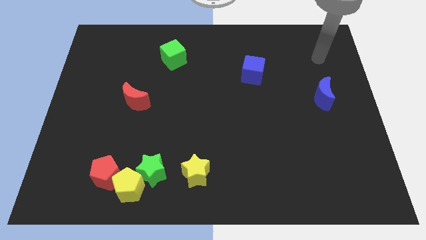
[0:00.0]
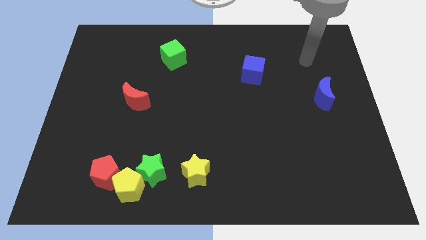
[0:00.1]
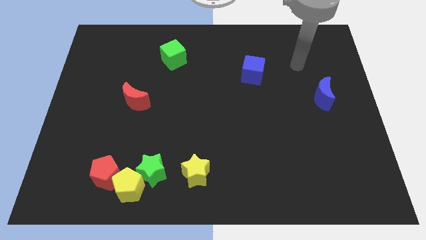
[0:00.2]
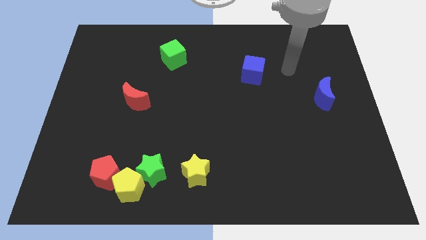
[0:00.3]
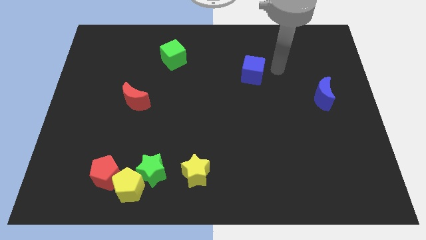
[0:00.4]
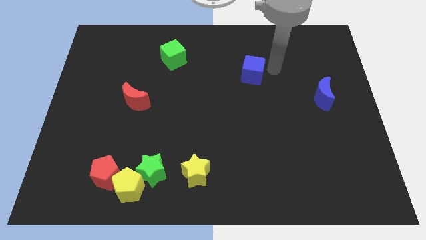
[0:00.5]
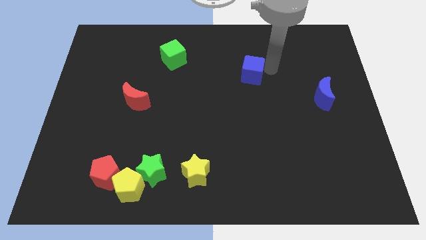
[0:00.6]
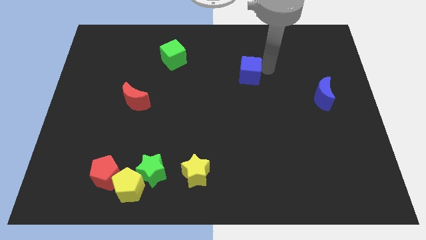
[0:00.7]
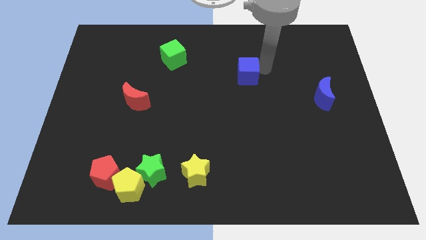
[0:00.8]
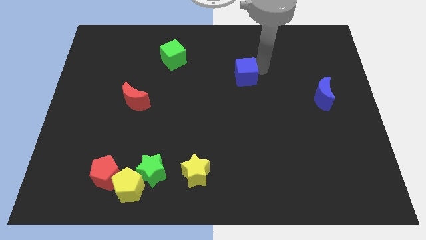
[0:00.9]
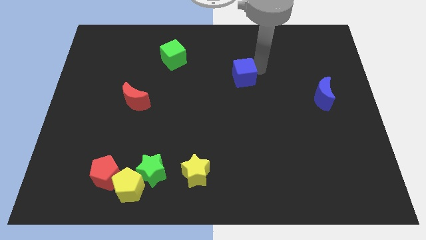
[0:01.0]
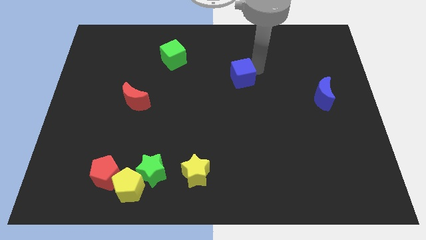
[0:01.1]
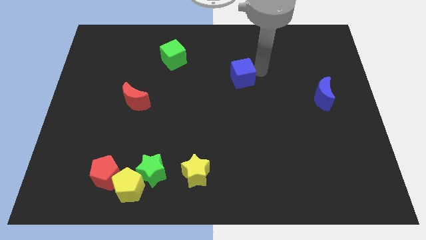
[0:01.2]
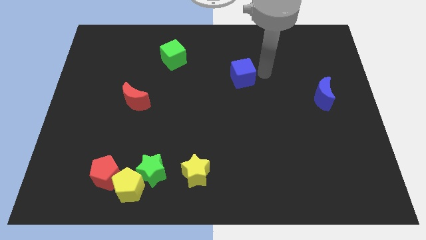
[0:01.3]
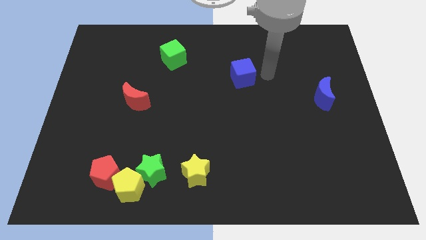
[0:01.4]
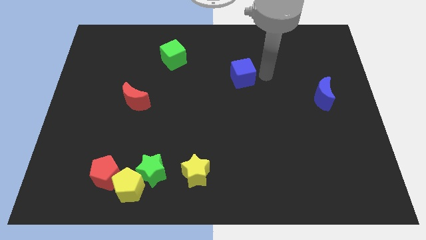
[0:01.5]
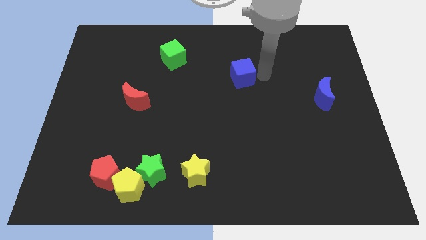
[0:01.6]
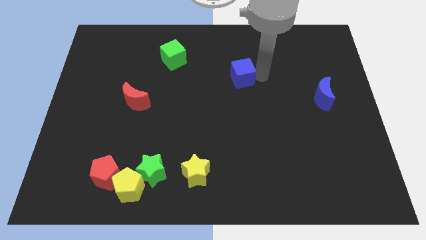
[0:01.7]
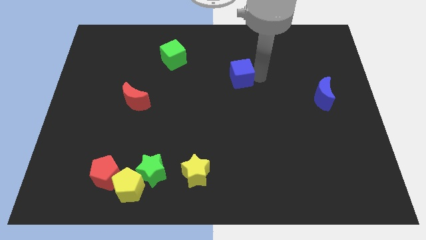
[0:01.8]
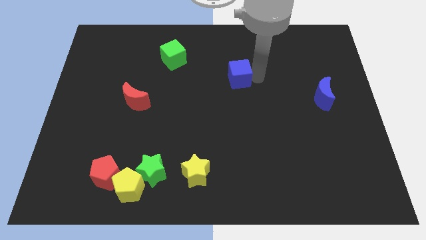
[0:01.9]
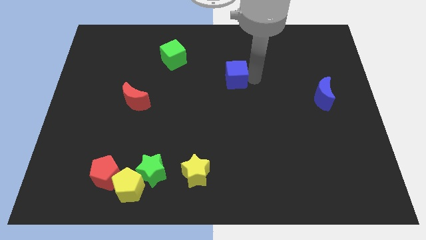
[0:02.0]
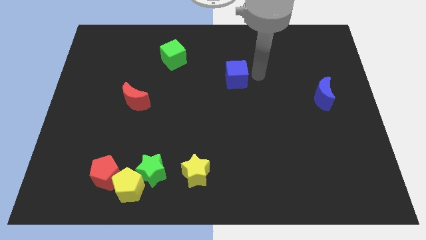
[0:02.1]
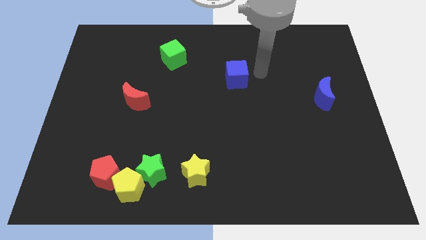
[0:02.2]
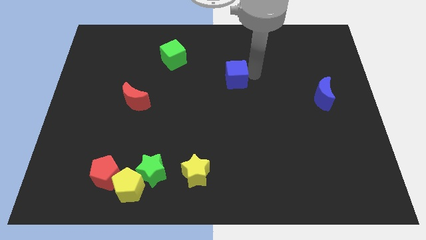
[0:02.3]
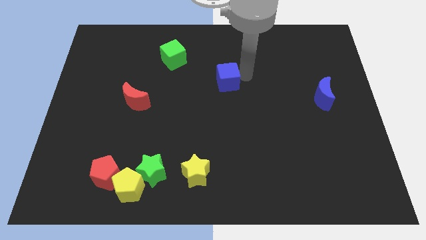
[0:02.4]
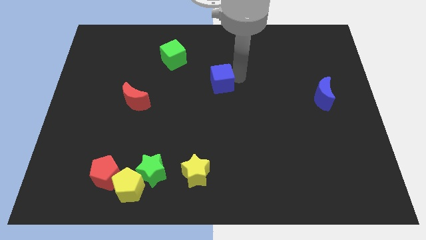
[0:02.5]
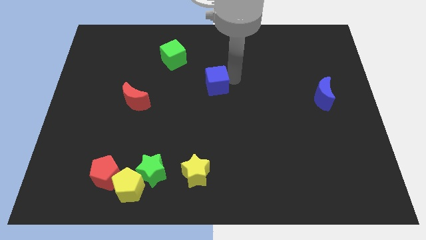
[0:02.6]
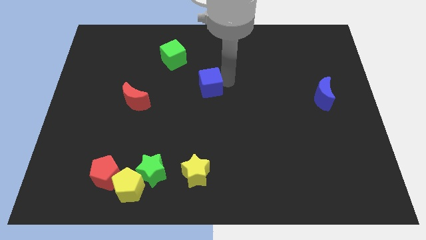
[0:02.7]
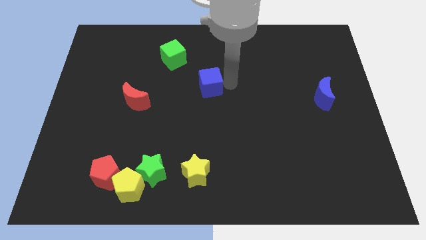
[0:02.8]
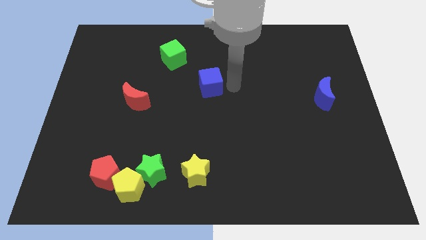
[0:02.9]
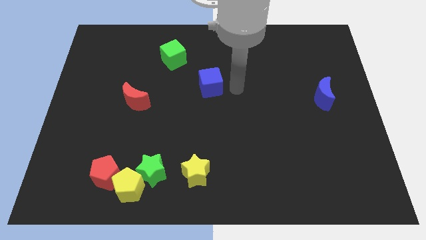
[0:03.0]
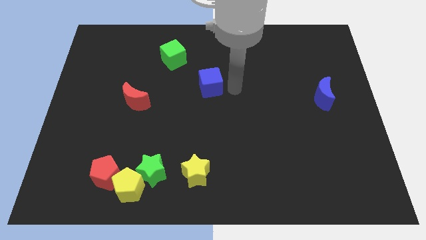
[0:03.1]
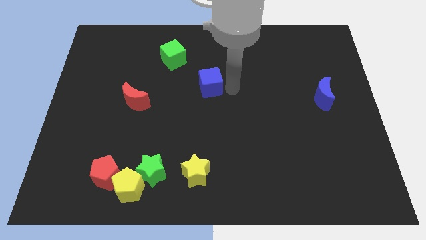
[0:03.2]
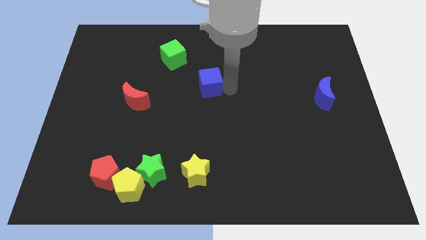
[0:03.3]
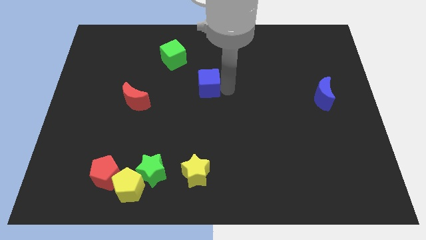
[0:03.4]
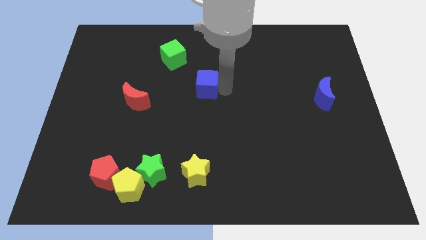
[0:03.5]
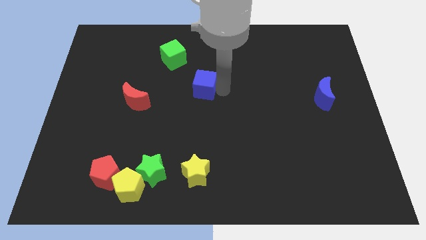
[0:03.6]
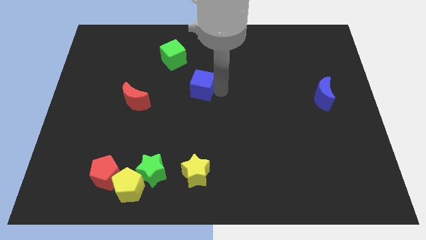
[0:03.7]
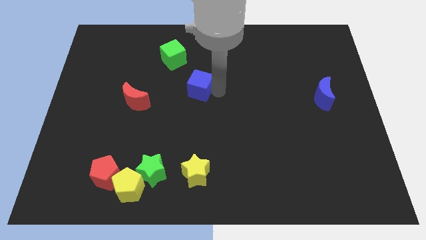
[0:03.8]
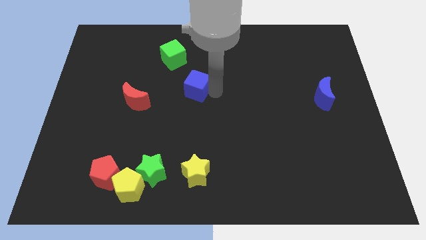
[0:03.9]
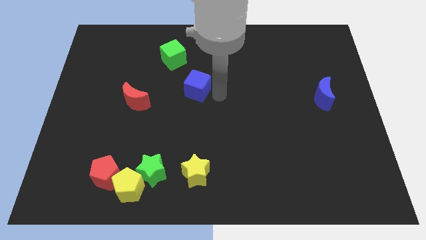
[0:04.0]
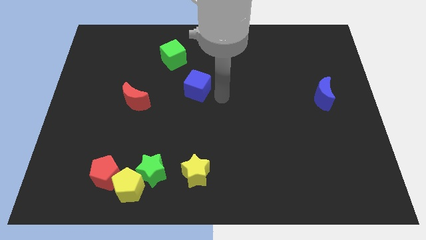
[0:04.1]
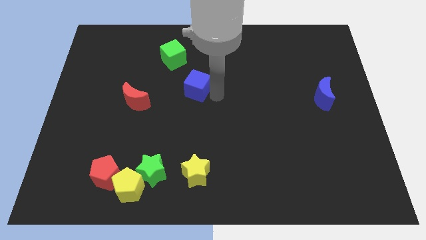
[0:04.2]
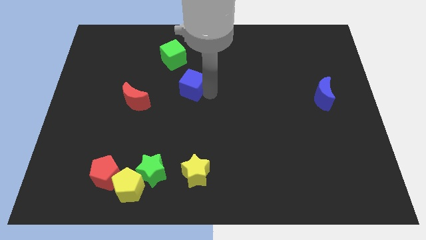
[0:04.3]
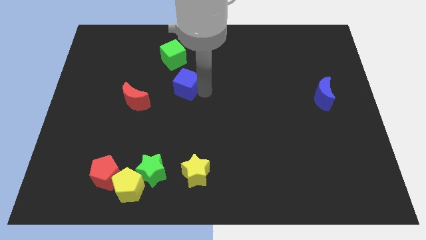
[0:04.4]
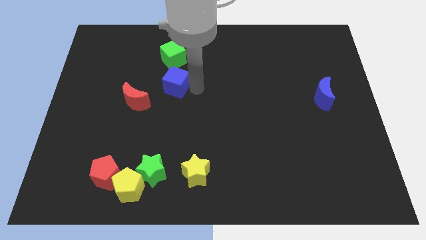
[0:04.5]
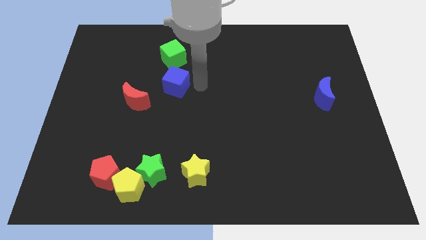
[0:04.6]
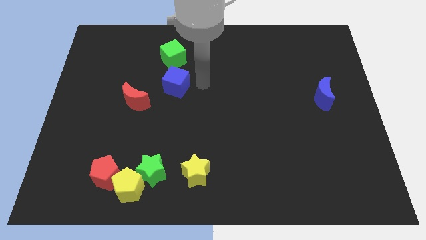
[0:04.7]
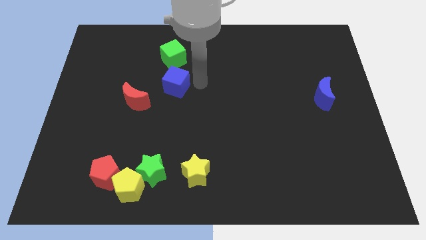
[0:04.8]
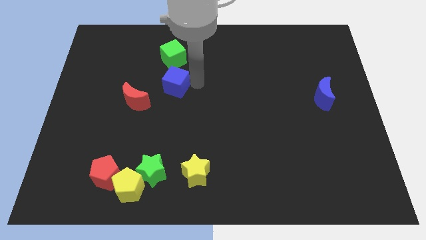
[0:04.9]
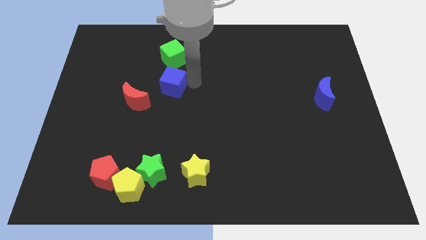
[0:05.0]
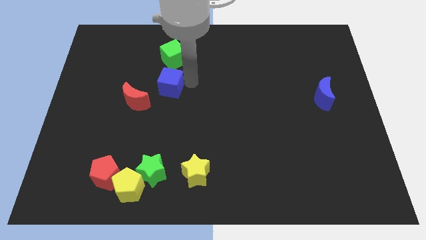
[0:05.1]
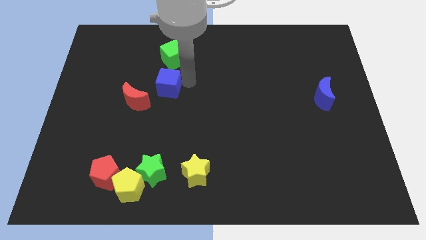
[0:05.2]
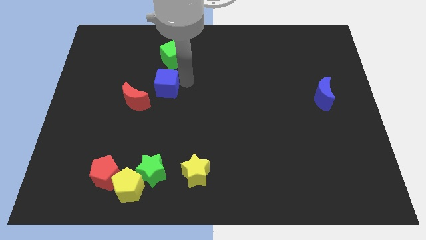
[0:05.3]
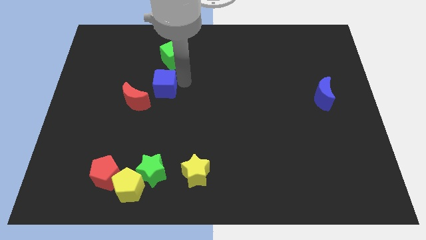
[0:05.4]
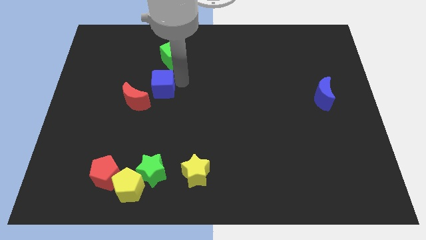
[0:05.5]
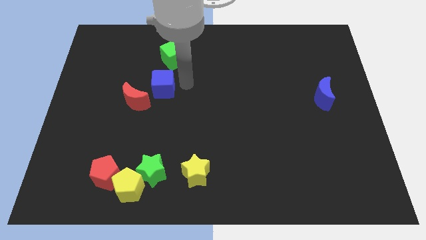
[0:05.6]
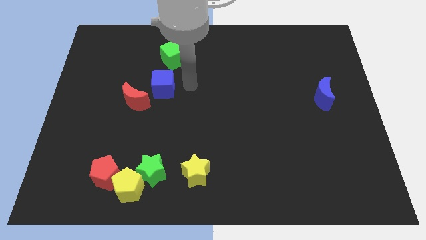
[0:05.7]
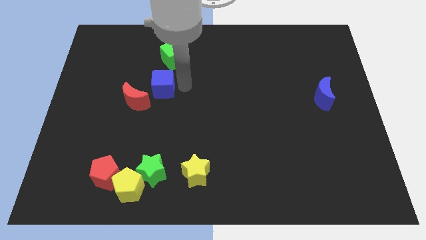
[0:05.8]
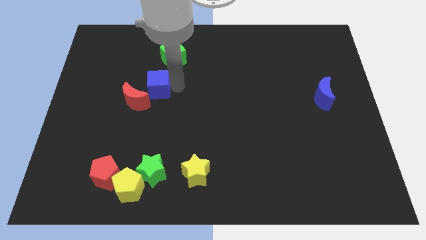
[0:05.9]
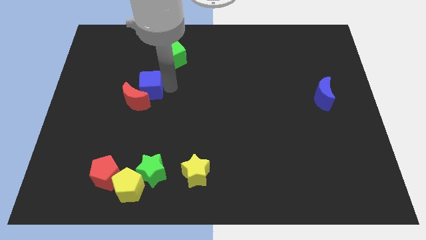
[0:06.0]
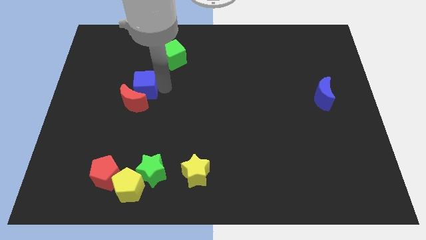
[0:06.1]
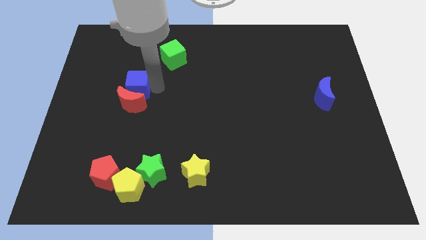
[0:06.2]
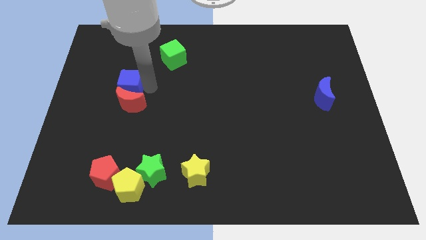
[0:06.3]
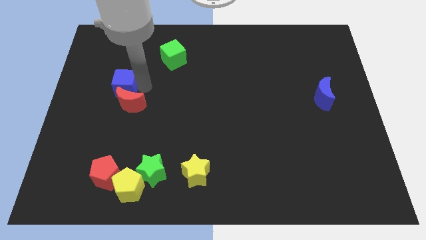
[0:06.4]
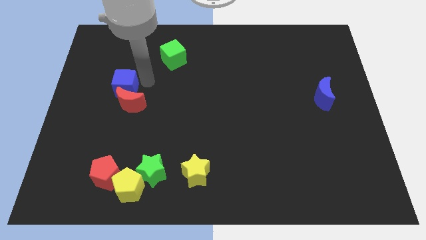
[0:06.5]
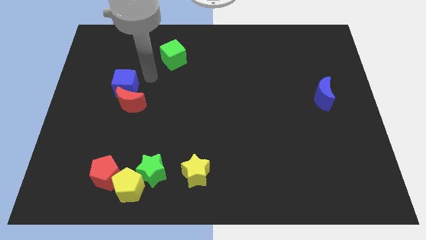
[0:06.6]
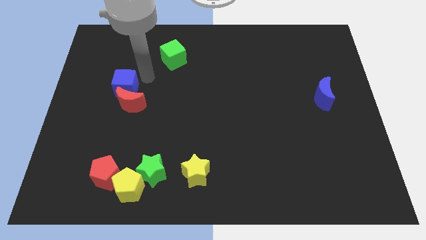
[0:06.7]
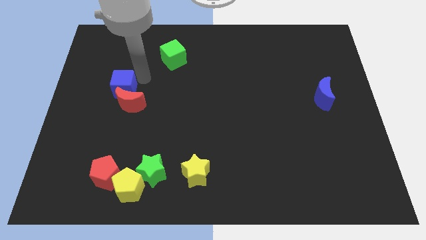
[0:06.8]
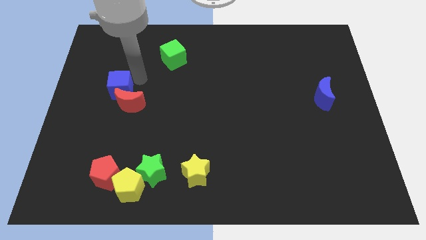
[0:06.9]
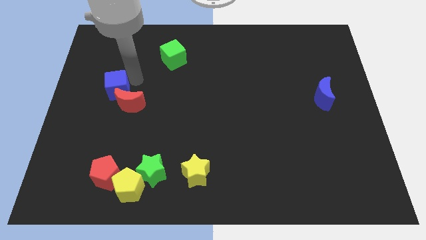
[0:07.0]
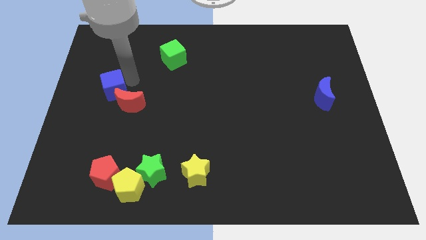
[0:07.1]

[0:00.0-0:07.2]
slide the blue cube left of the red moon
